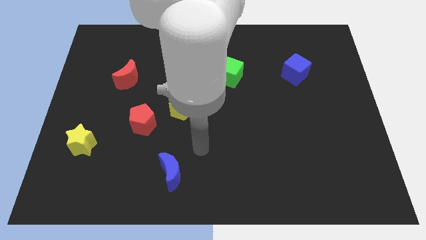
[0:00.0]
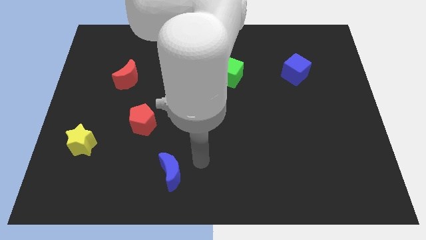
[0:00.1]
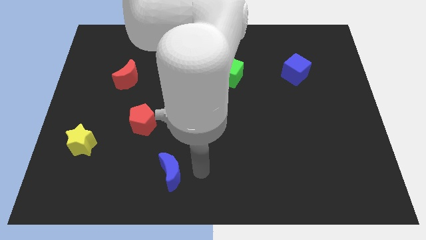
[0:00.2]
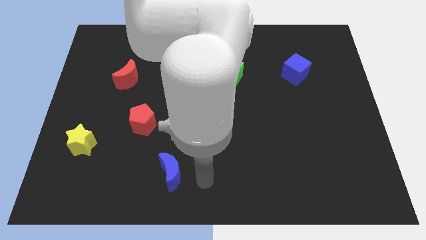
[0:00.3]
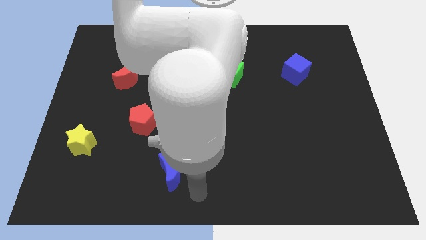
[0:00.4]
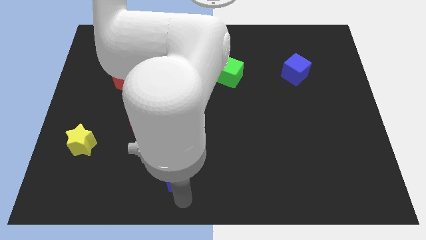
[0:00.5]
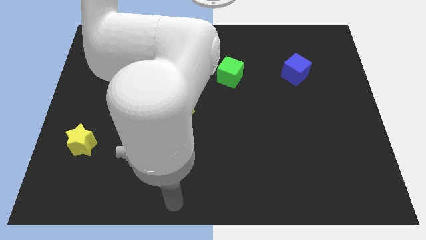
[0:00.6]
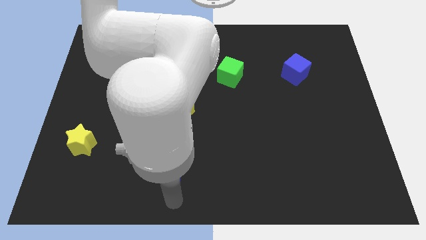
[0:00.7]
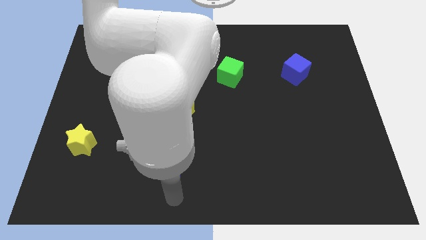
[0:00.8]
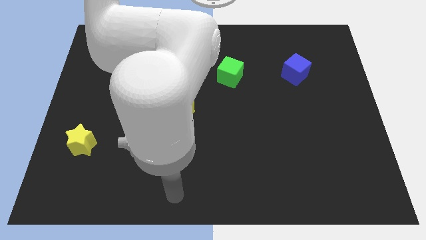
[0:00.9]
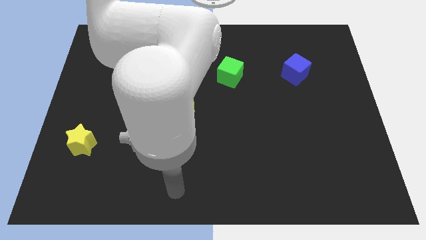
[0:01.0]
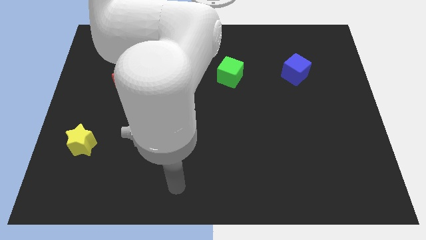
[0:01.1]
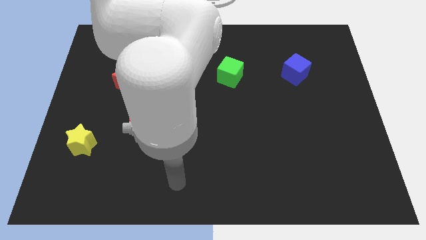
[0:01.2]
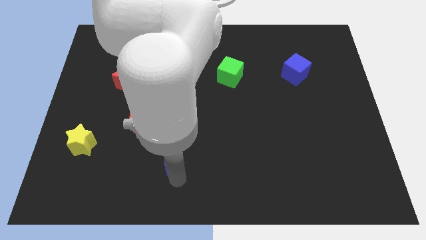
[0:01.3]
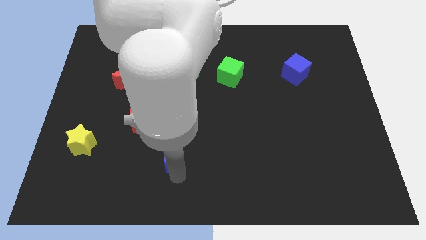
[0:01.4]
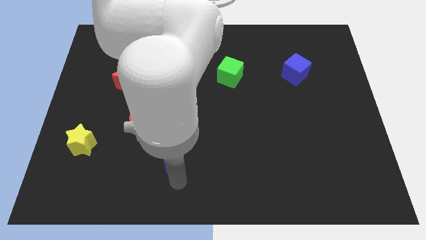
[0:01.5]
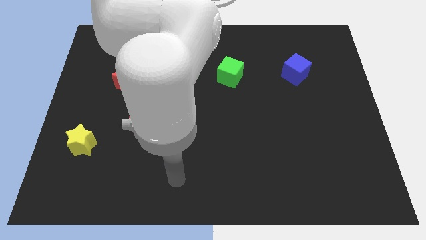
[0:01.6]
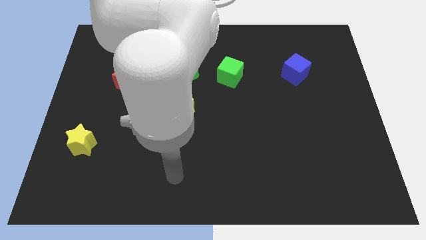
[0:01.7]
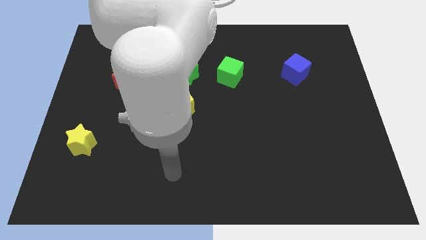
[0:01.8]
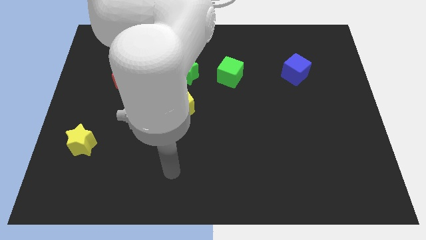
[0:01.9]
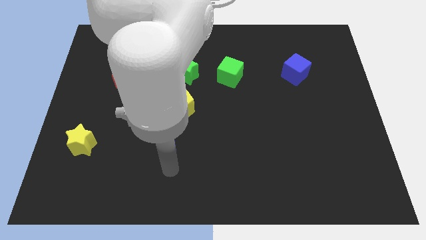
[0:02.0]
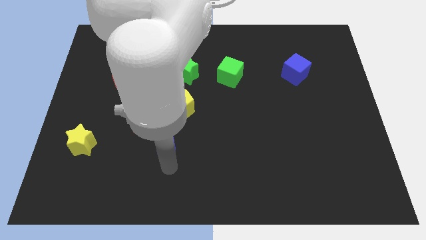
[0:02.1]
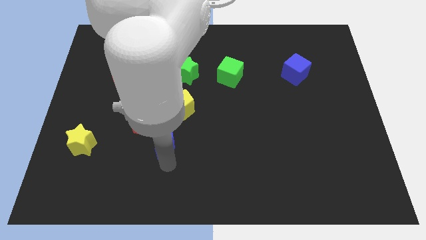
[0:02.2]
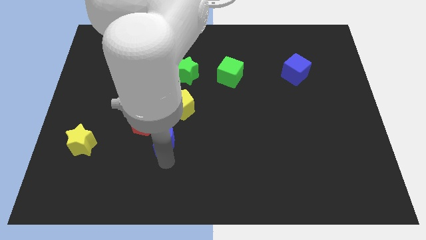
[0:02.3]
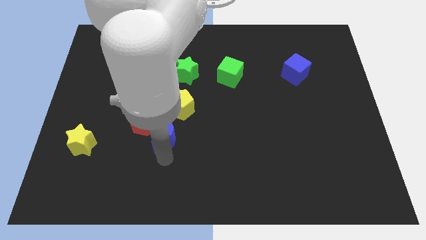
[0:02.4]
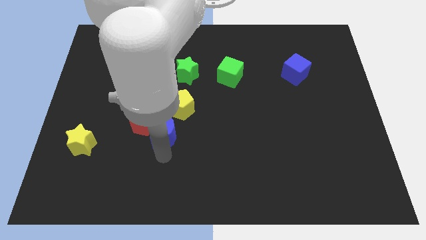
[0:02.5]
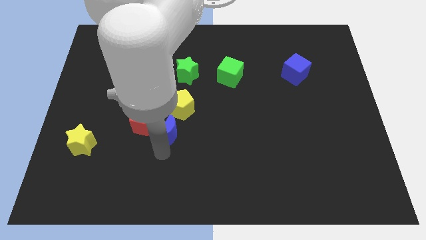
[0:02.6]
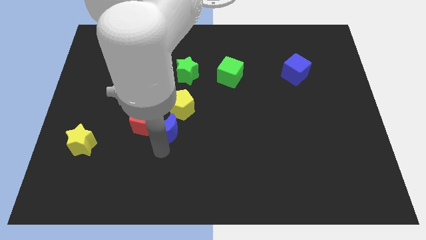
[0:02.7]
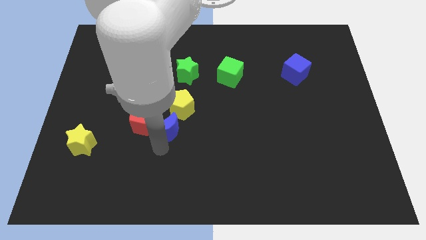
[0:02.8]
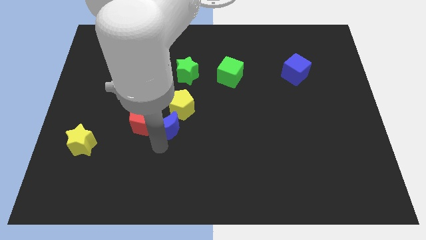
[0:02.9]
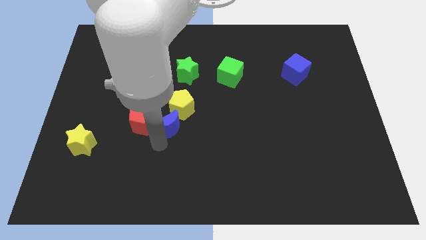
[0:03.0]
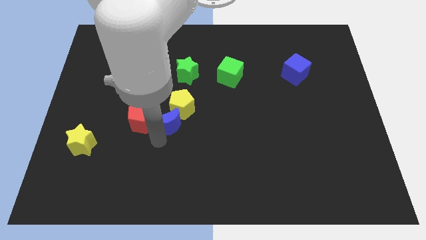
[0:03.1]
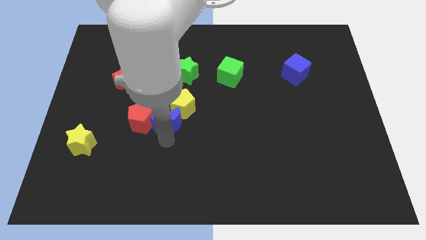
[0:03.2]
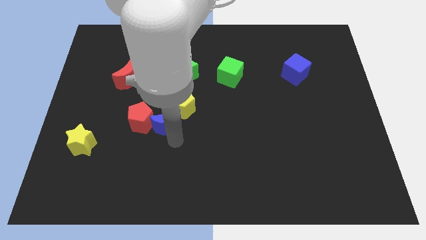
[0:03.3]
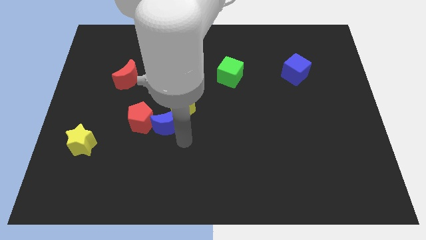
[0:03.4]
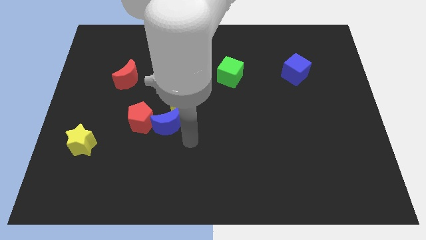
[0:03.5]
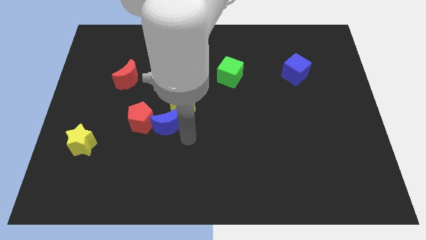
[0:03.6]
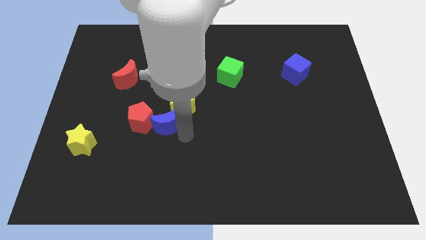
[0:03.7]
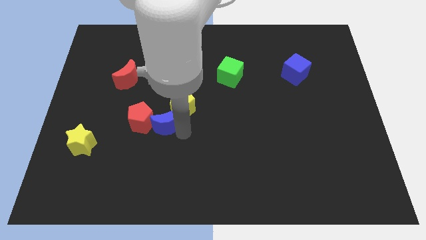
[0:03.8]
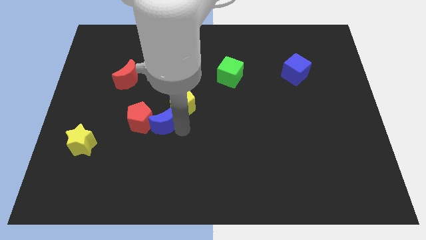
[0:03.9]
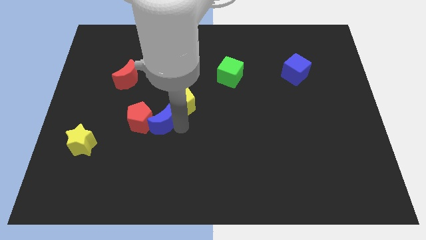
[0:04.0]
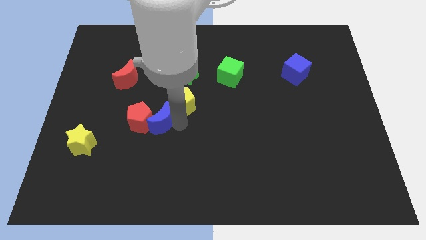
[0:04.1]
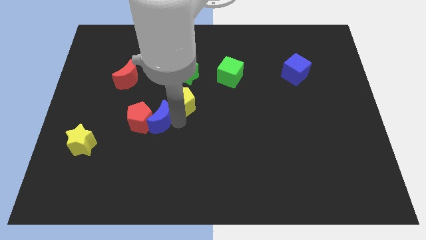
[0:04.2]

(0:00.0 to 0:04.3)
move the blue moon to the left of the yellow pentagon

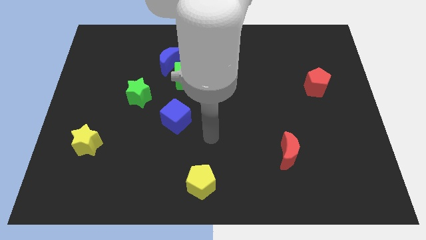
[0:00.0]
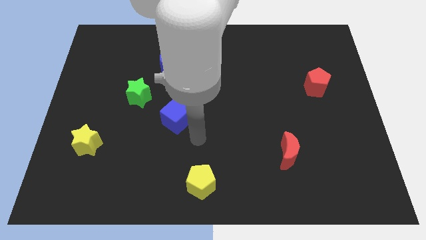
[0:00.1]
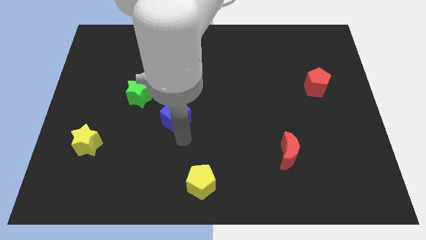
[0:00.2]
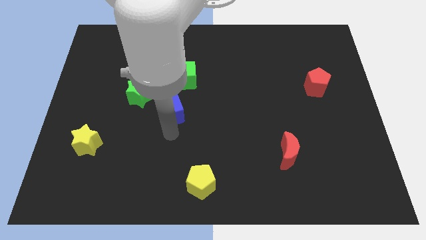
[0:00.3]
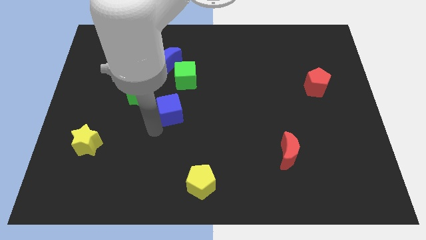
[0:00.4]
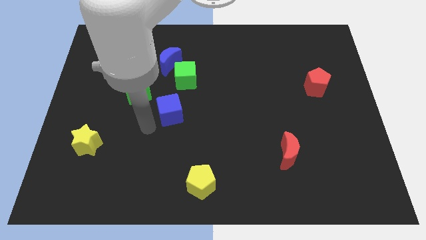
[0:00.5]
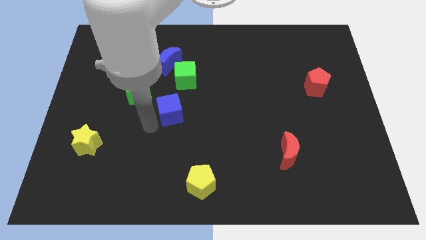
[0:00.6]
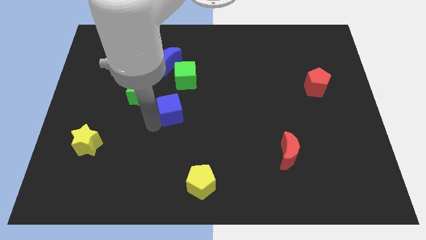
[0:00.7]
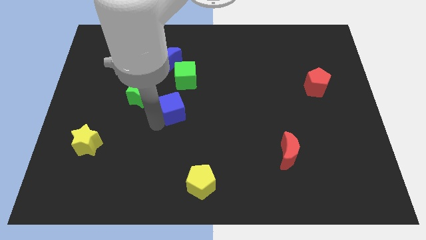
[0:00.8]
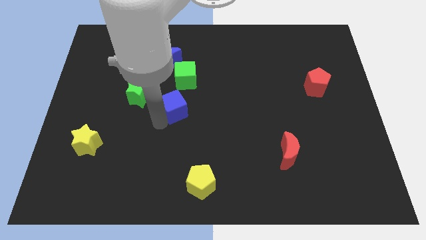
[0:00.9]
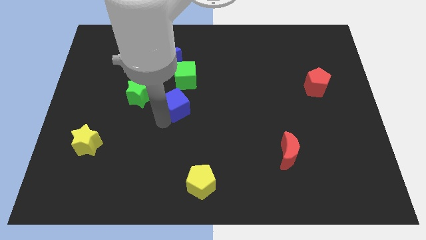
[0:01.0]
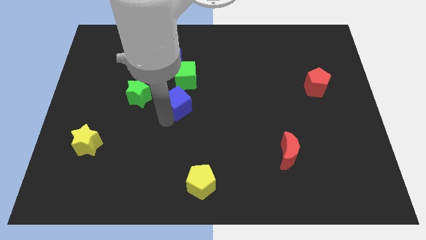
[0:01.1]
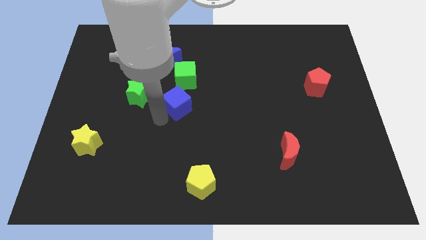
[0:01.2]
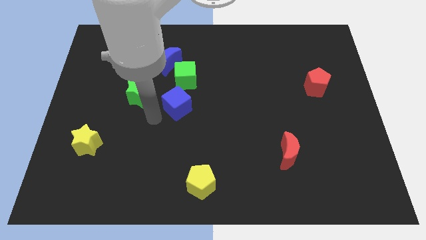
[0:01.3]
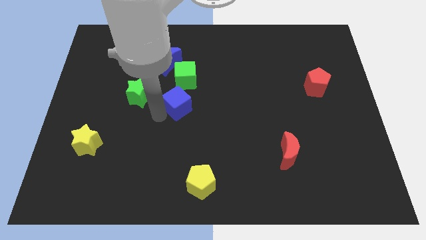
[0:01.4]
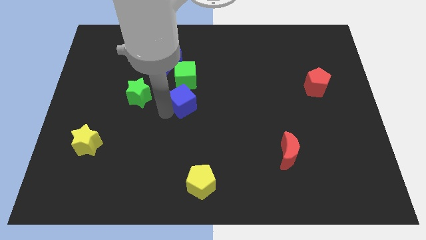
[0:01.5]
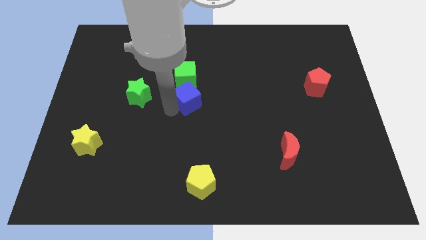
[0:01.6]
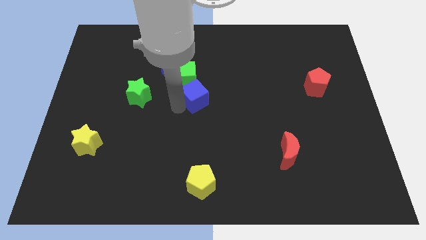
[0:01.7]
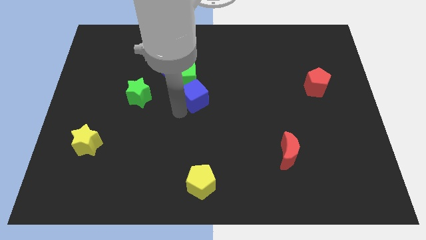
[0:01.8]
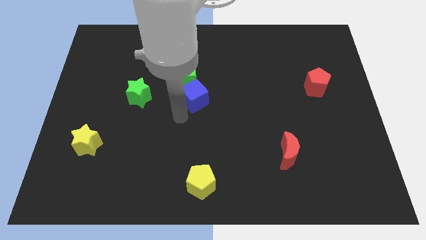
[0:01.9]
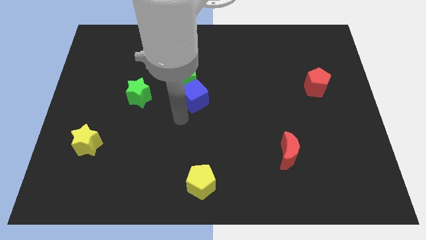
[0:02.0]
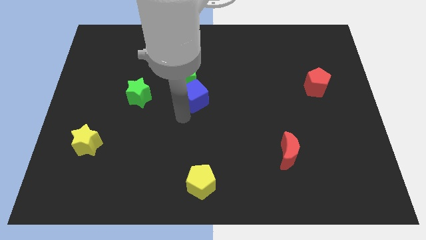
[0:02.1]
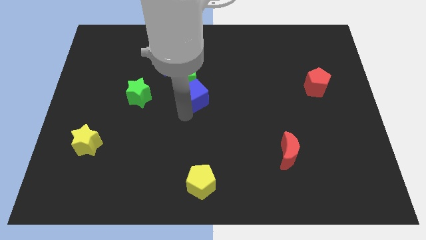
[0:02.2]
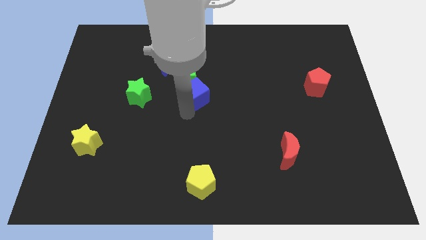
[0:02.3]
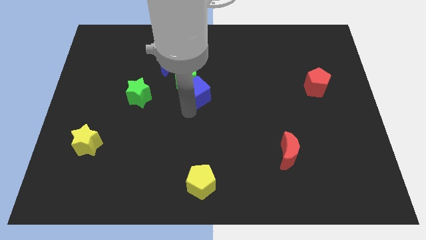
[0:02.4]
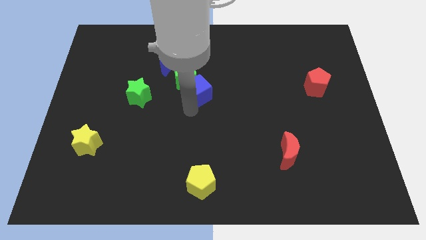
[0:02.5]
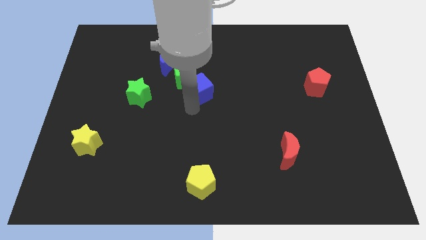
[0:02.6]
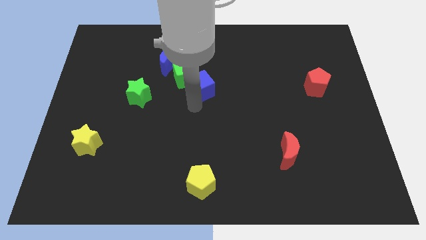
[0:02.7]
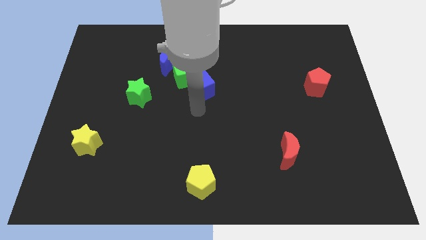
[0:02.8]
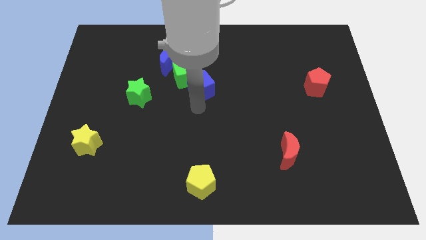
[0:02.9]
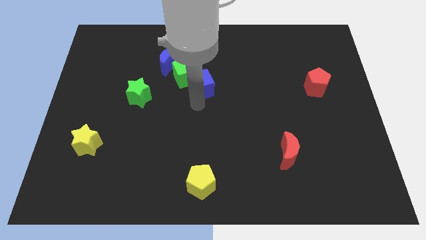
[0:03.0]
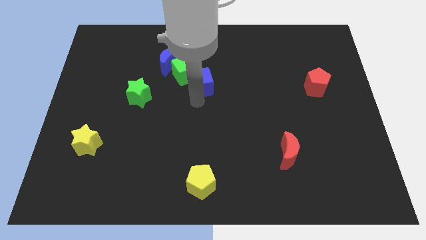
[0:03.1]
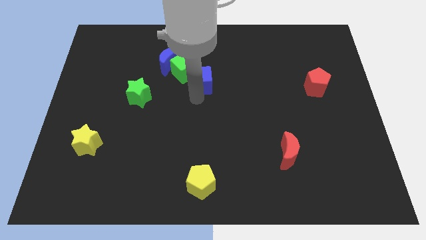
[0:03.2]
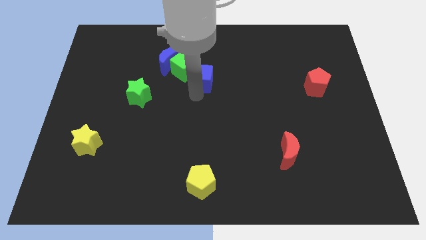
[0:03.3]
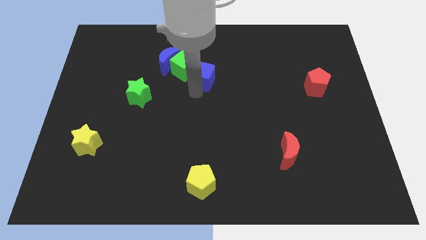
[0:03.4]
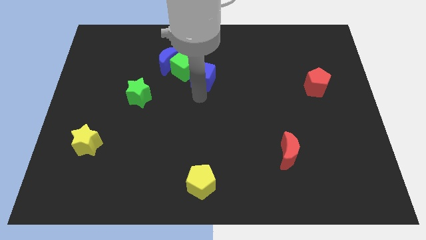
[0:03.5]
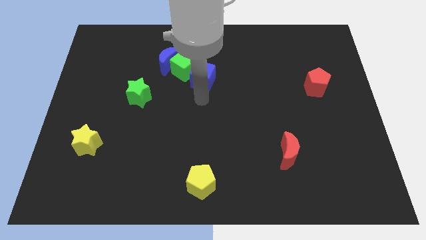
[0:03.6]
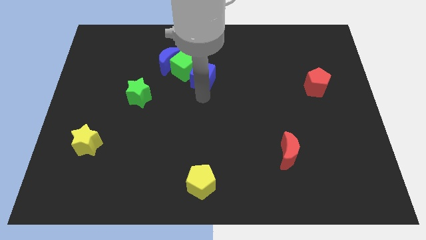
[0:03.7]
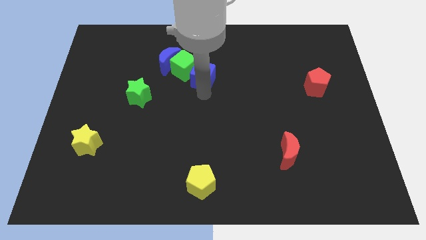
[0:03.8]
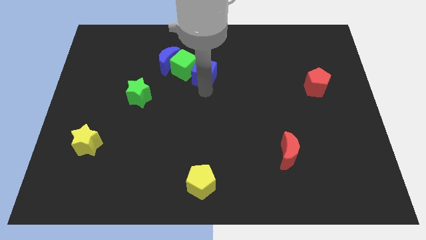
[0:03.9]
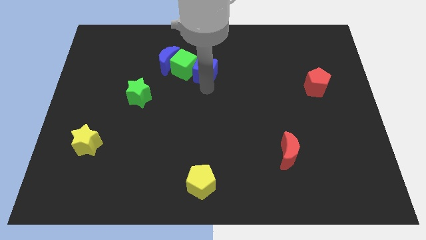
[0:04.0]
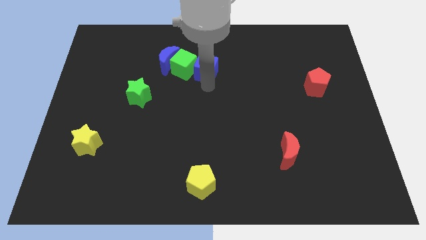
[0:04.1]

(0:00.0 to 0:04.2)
move the blue cube diagonally up and to the right of the green cube
